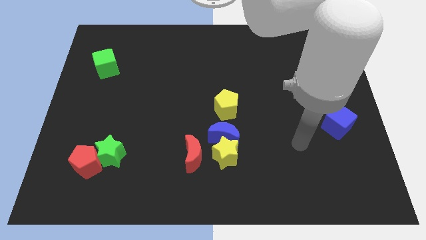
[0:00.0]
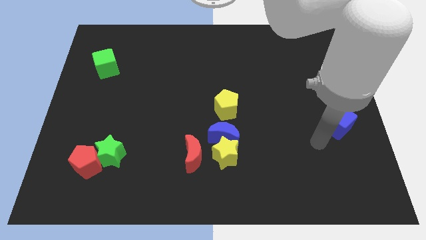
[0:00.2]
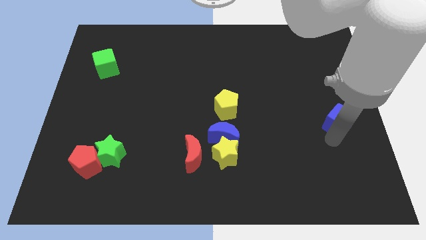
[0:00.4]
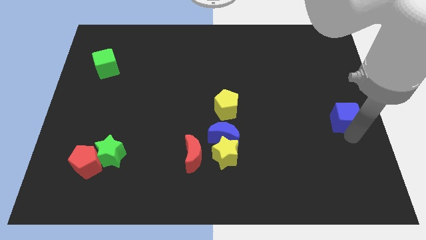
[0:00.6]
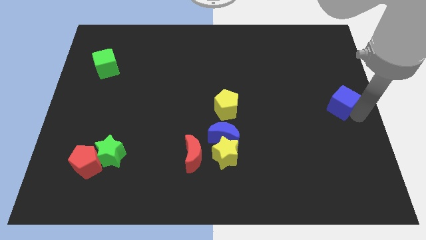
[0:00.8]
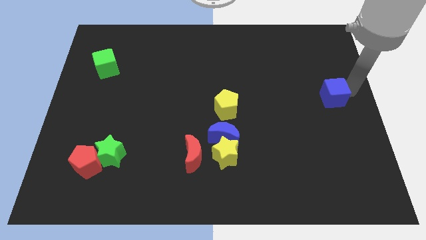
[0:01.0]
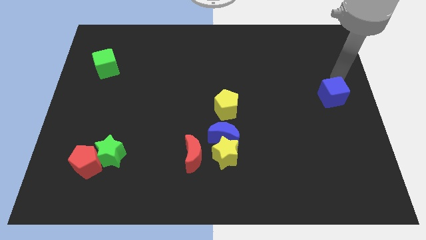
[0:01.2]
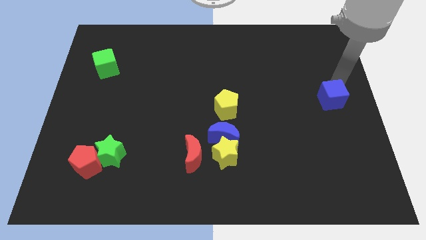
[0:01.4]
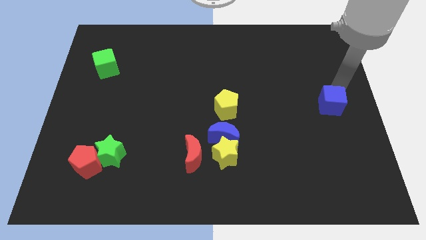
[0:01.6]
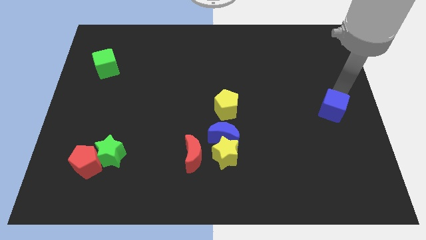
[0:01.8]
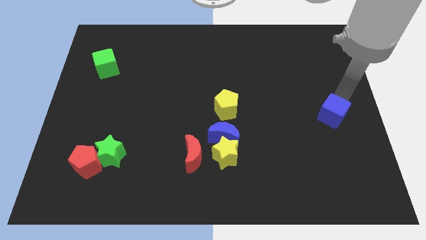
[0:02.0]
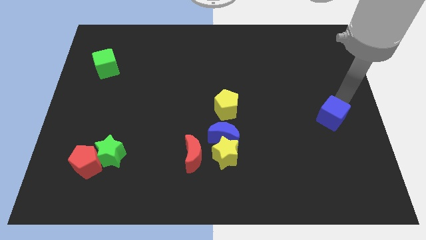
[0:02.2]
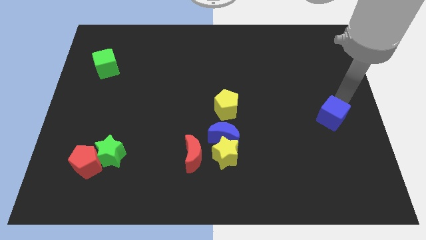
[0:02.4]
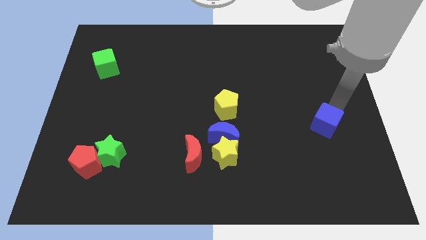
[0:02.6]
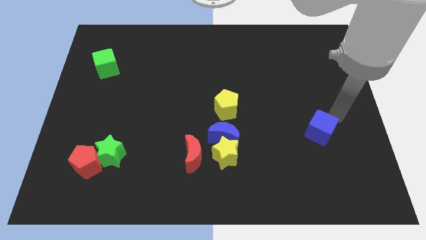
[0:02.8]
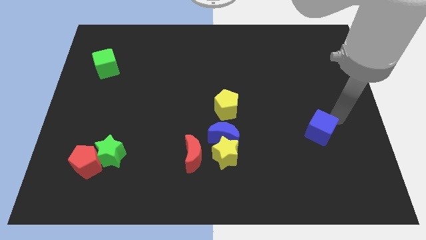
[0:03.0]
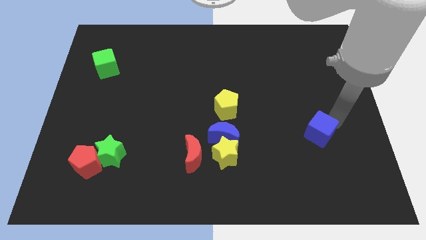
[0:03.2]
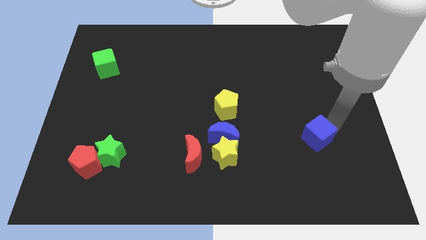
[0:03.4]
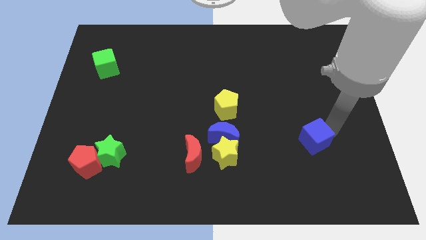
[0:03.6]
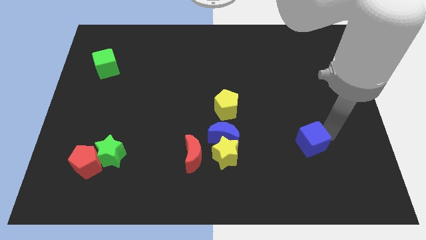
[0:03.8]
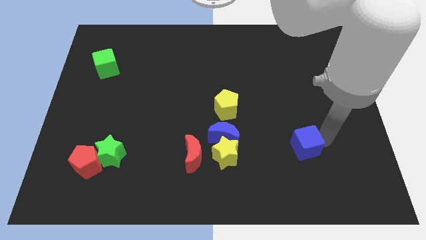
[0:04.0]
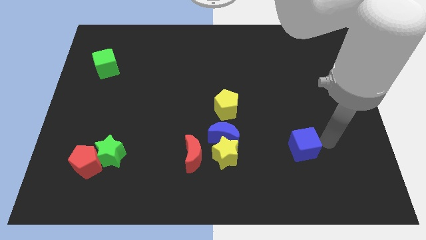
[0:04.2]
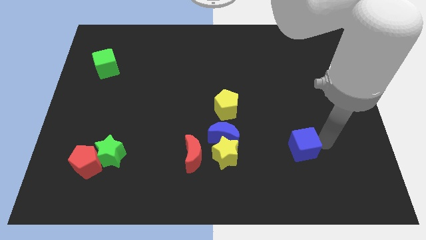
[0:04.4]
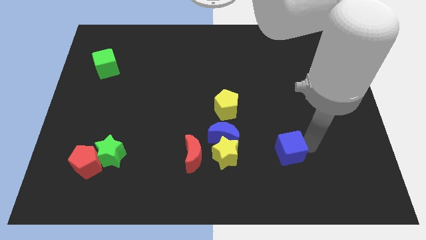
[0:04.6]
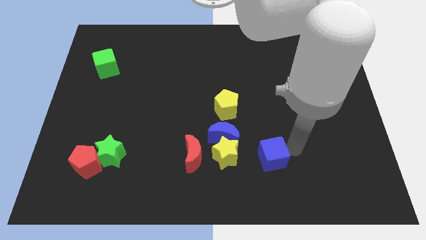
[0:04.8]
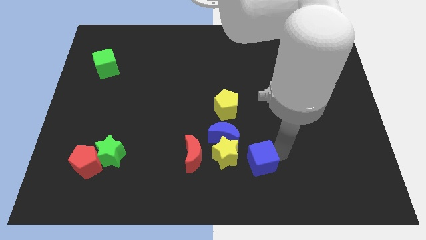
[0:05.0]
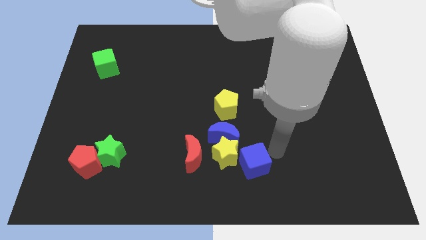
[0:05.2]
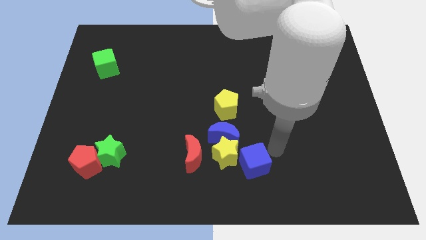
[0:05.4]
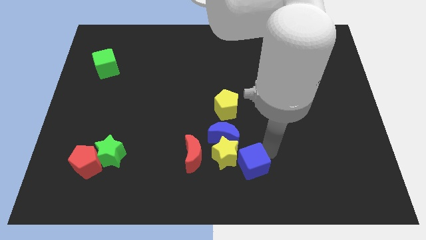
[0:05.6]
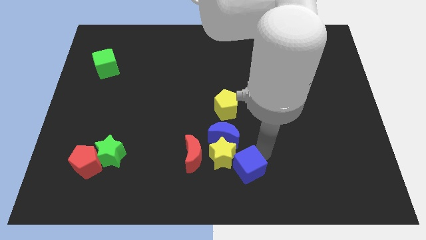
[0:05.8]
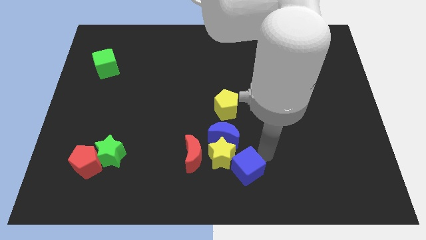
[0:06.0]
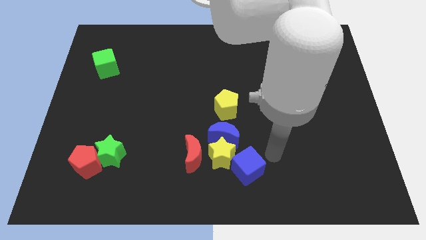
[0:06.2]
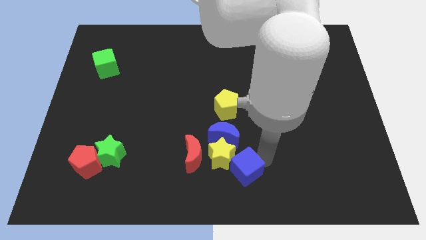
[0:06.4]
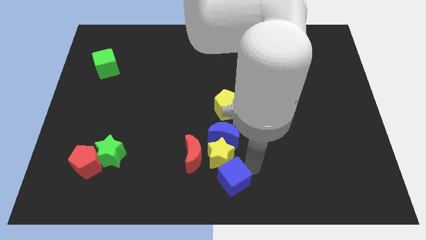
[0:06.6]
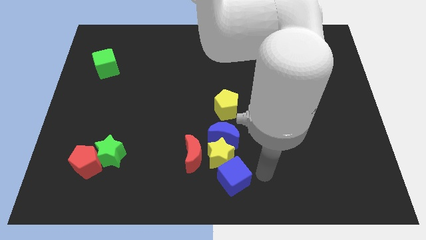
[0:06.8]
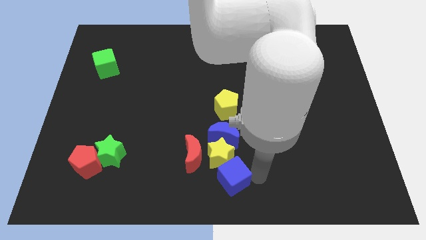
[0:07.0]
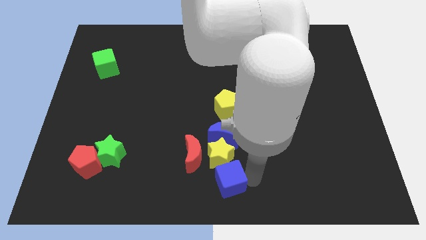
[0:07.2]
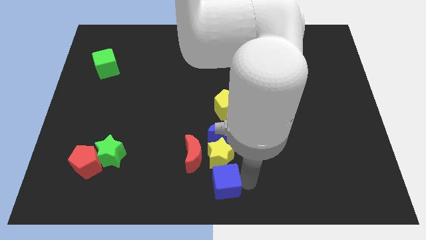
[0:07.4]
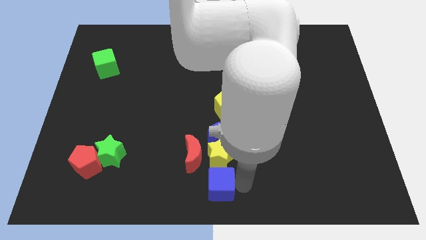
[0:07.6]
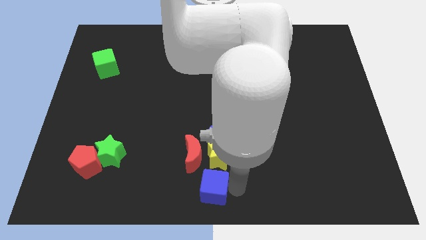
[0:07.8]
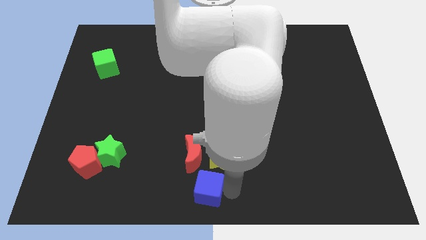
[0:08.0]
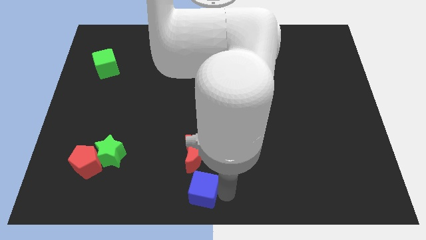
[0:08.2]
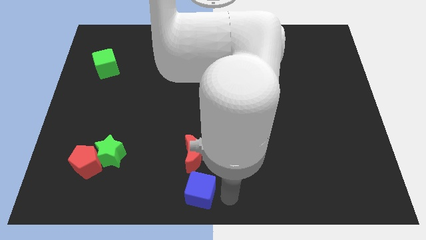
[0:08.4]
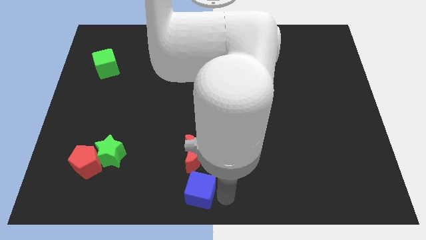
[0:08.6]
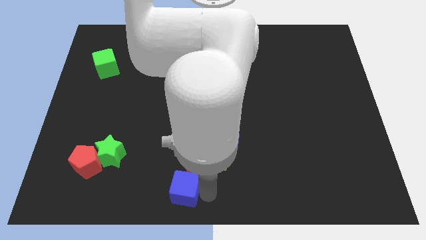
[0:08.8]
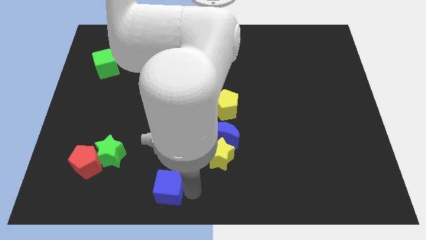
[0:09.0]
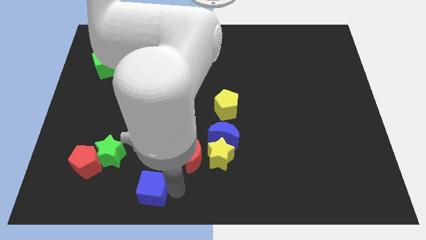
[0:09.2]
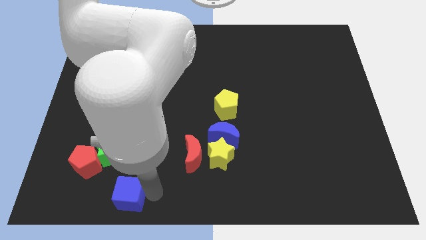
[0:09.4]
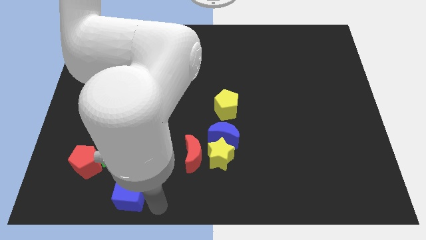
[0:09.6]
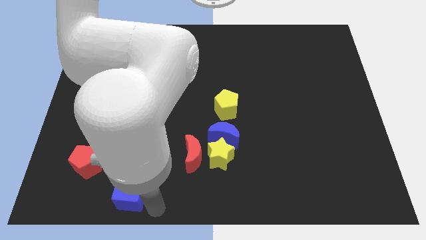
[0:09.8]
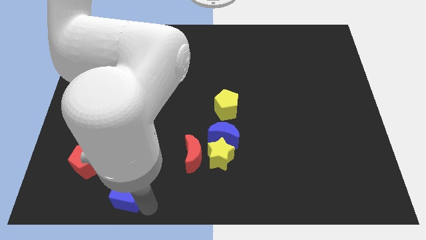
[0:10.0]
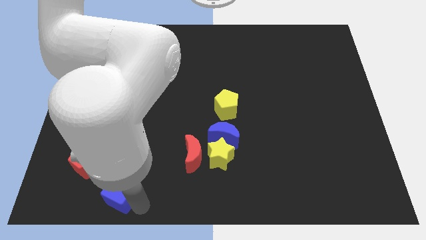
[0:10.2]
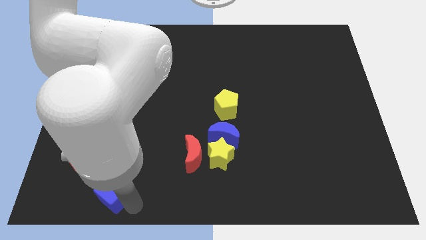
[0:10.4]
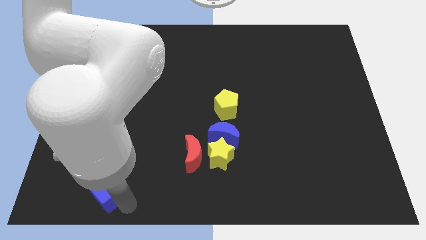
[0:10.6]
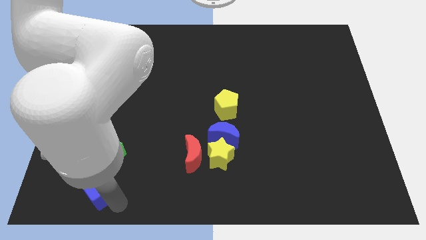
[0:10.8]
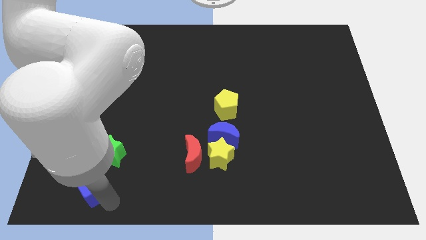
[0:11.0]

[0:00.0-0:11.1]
move the blue cube to the red pentagon

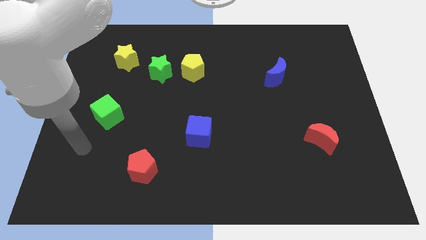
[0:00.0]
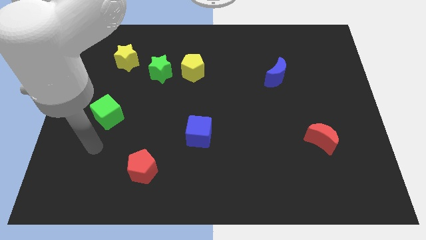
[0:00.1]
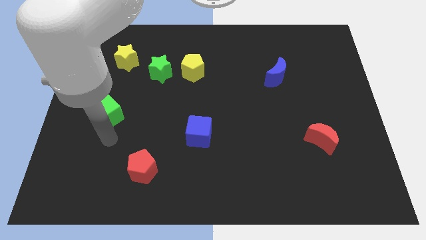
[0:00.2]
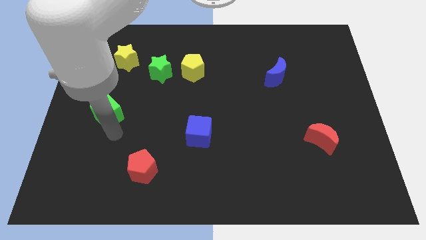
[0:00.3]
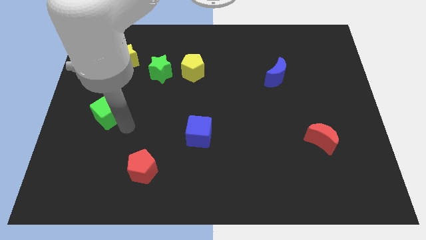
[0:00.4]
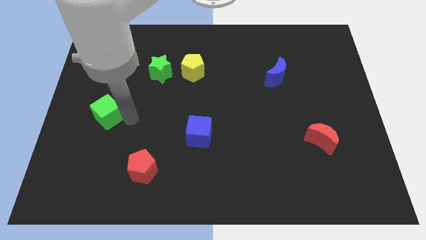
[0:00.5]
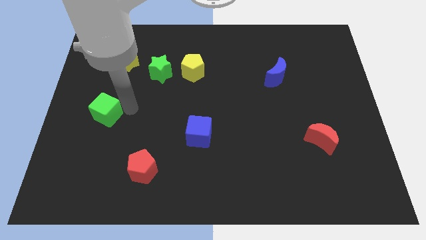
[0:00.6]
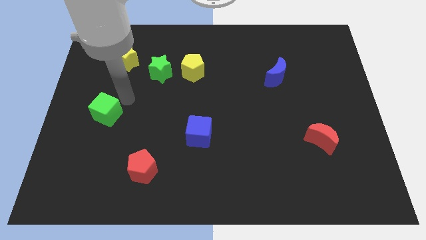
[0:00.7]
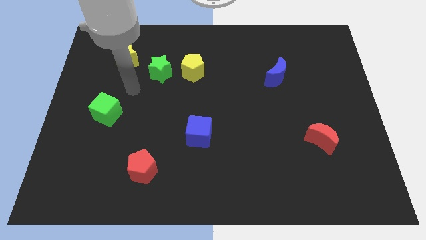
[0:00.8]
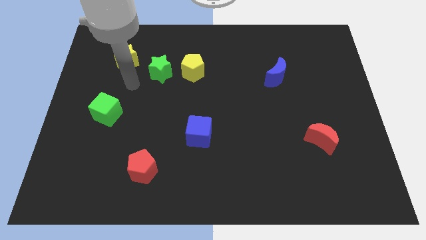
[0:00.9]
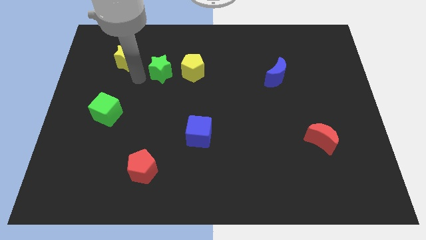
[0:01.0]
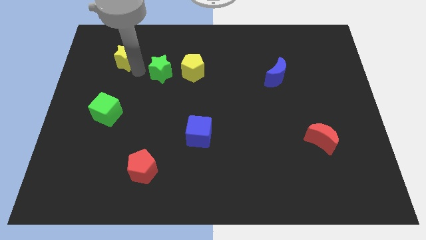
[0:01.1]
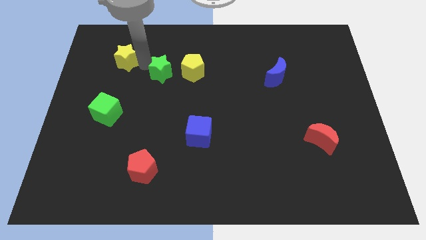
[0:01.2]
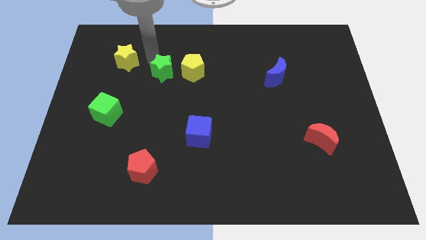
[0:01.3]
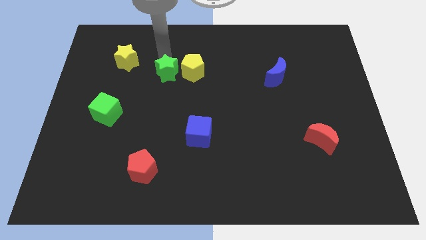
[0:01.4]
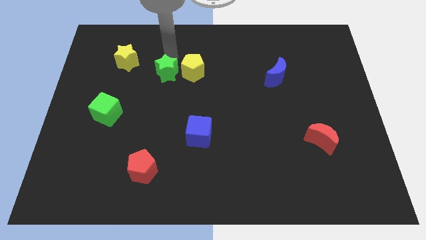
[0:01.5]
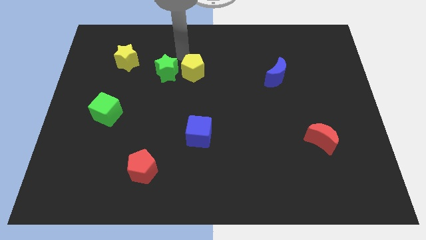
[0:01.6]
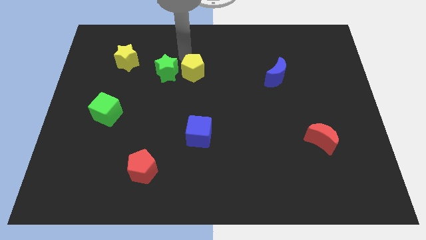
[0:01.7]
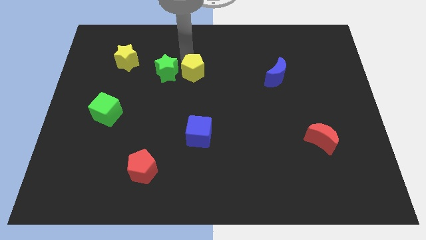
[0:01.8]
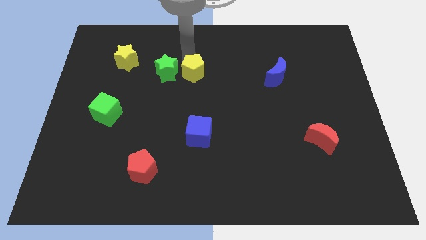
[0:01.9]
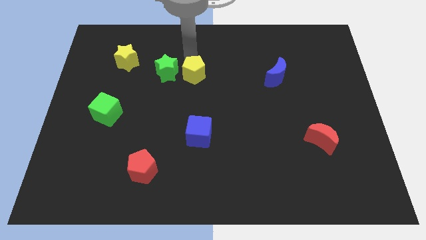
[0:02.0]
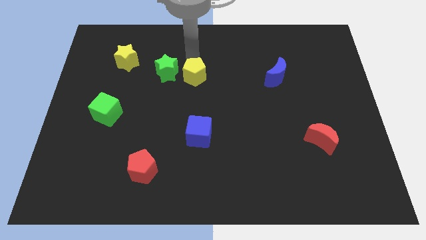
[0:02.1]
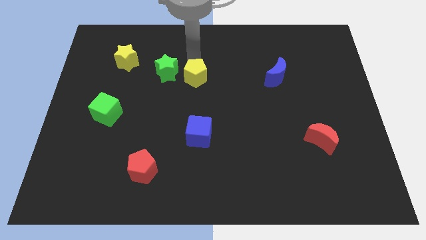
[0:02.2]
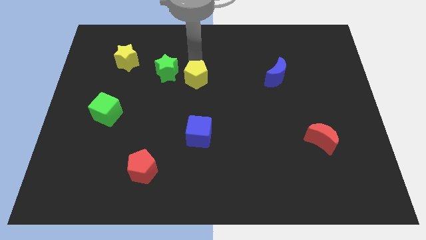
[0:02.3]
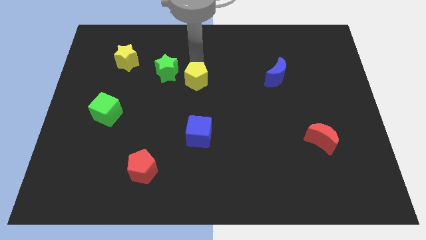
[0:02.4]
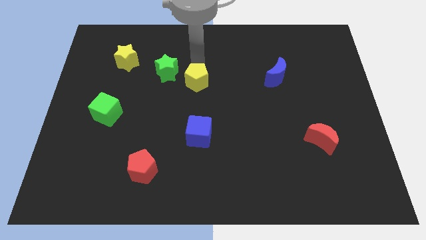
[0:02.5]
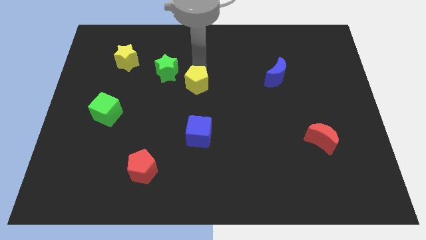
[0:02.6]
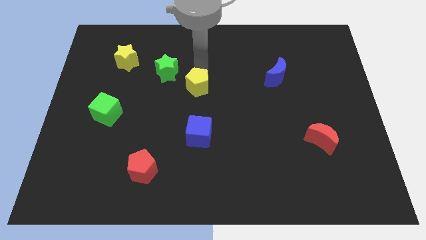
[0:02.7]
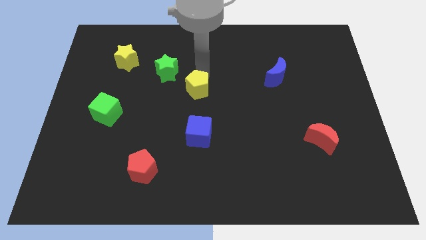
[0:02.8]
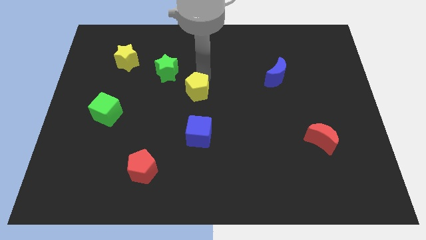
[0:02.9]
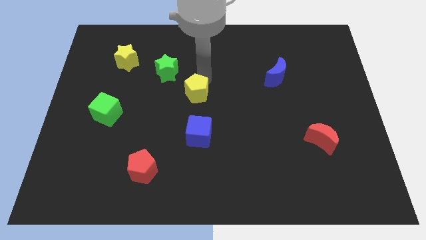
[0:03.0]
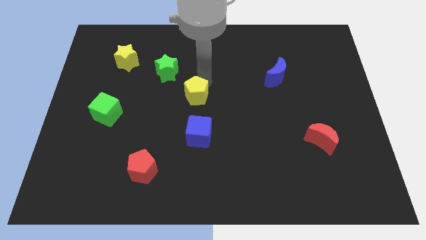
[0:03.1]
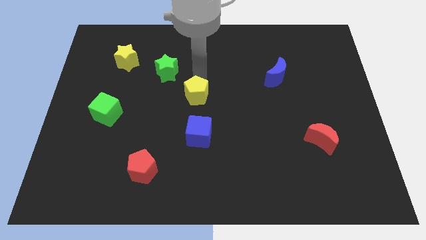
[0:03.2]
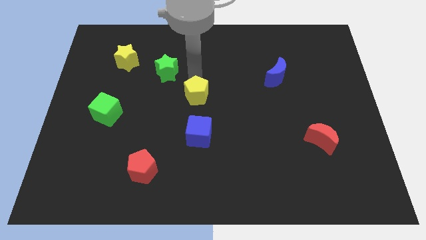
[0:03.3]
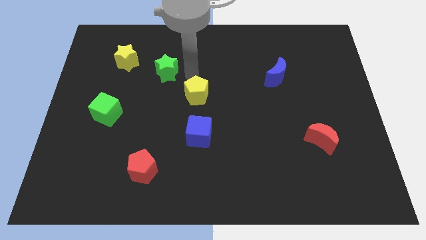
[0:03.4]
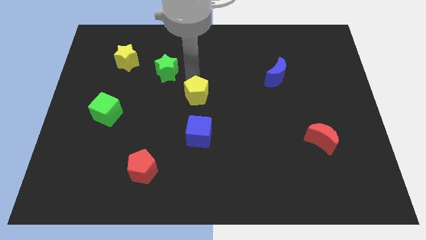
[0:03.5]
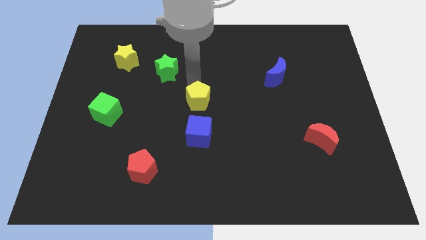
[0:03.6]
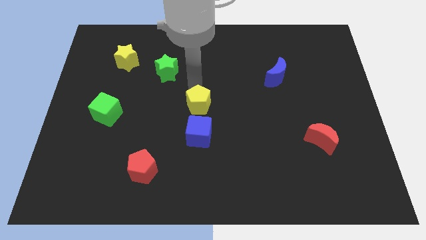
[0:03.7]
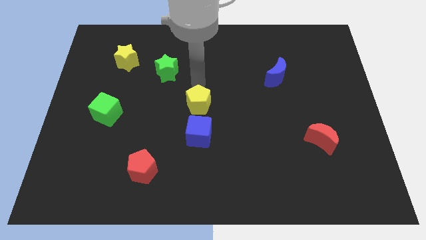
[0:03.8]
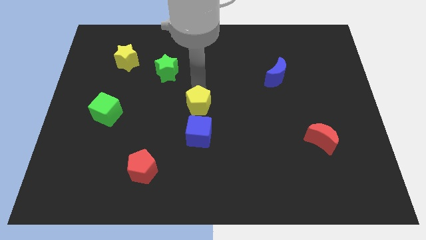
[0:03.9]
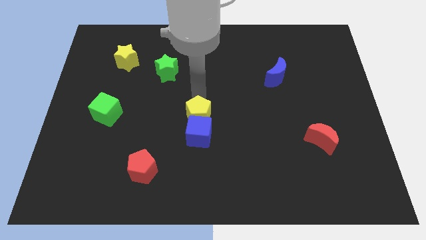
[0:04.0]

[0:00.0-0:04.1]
push the yellow pentagon to the blue cube
